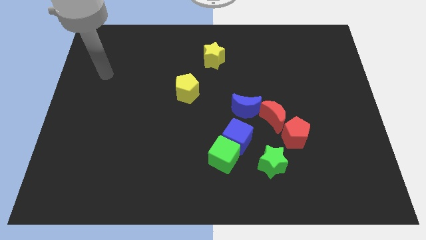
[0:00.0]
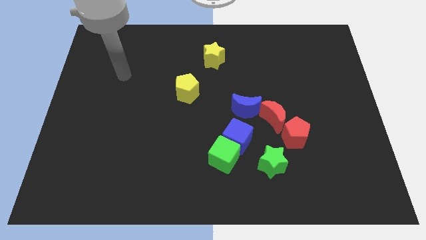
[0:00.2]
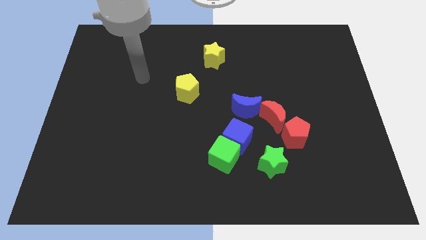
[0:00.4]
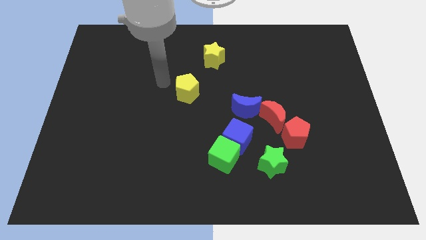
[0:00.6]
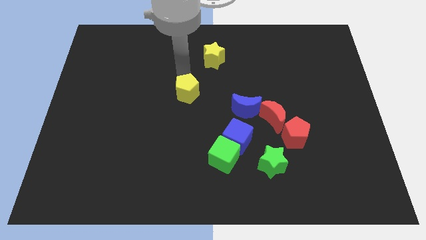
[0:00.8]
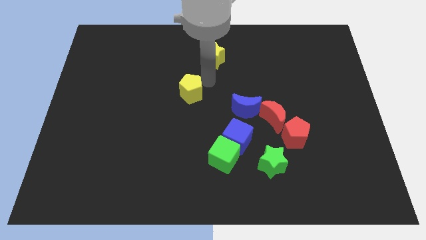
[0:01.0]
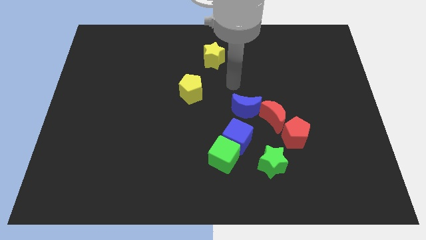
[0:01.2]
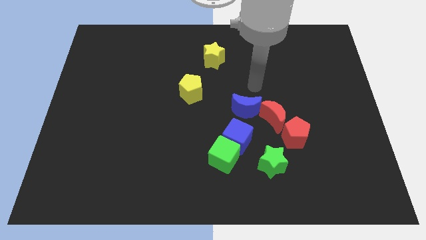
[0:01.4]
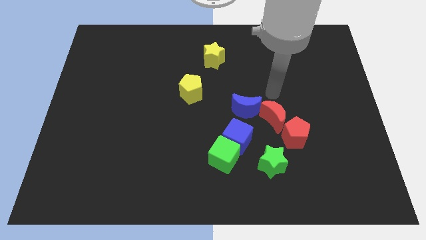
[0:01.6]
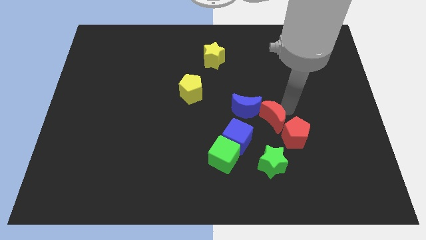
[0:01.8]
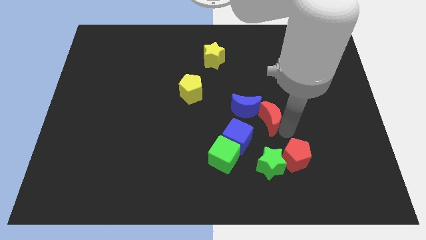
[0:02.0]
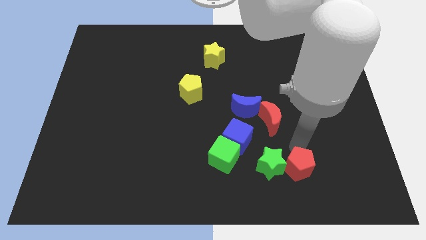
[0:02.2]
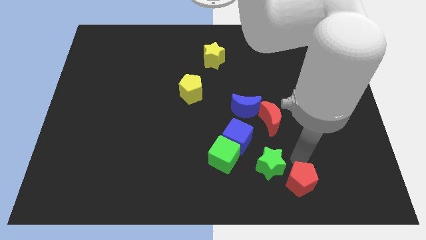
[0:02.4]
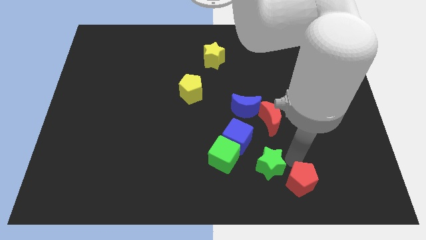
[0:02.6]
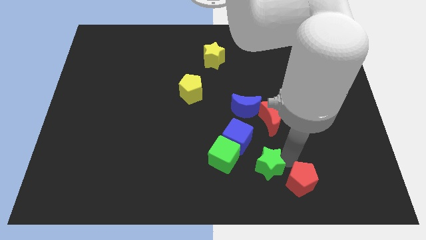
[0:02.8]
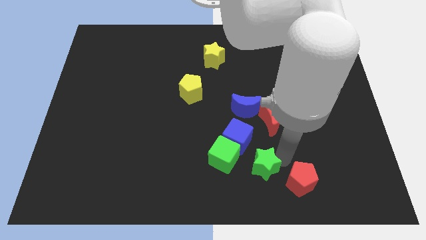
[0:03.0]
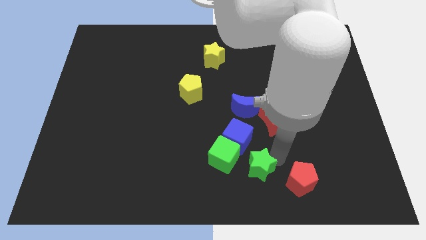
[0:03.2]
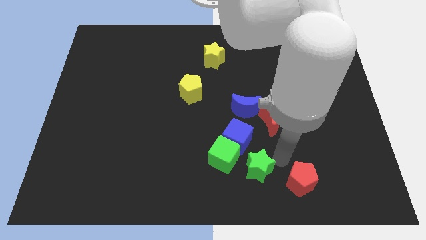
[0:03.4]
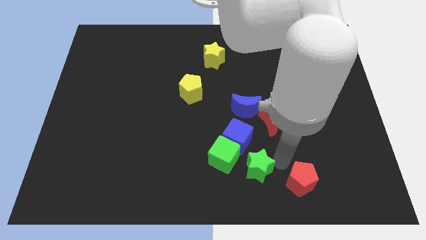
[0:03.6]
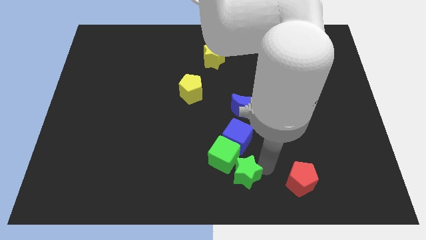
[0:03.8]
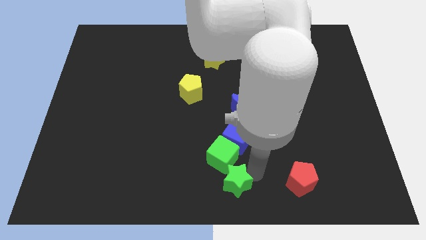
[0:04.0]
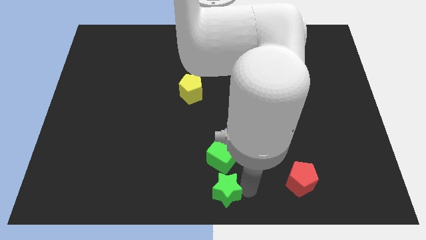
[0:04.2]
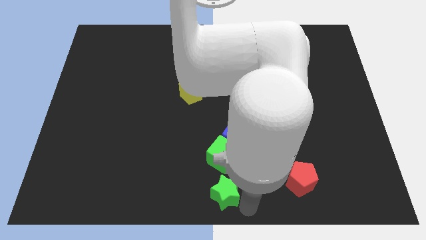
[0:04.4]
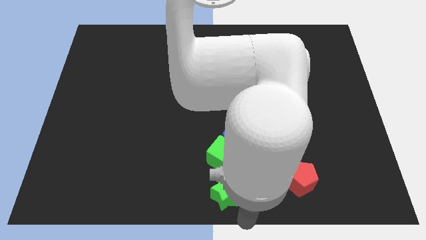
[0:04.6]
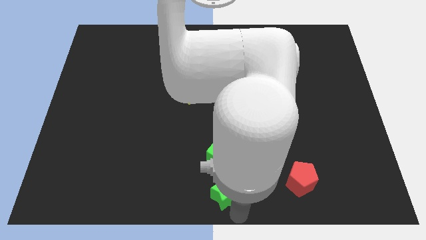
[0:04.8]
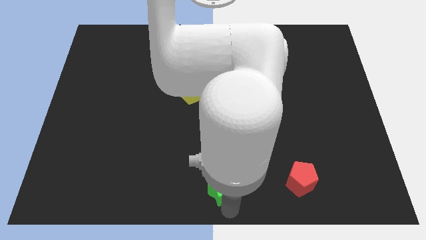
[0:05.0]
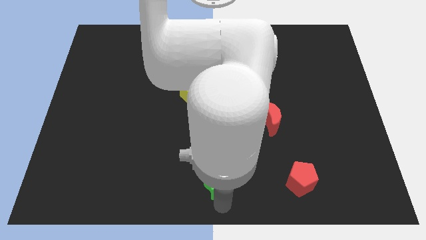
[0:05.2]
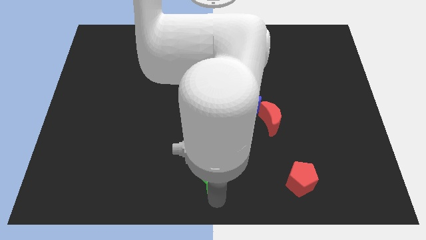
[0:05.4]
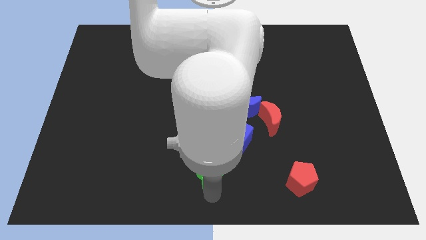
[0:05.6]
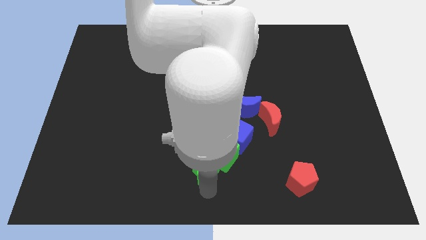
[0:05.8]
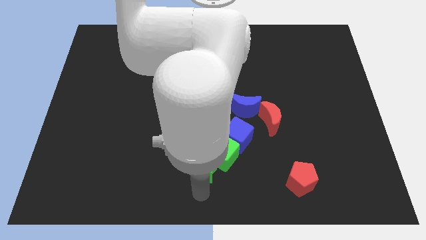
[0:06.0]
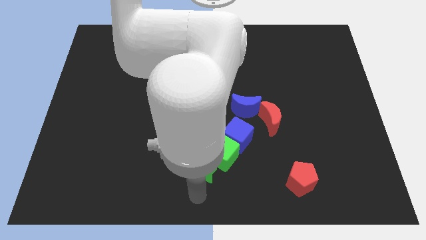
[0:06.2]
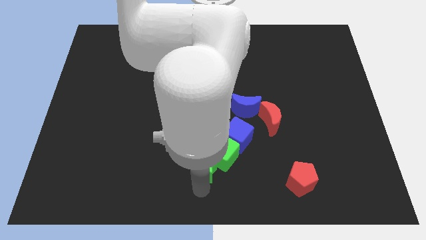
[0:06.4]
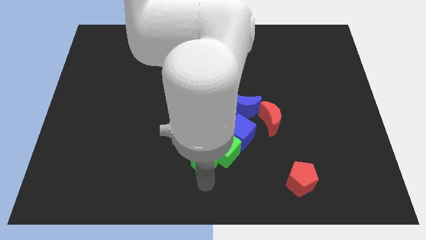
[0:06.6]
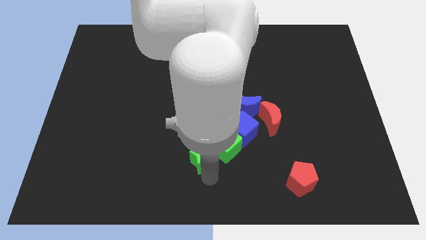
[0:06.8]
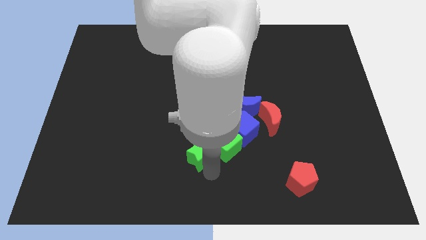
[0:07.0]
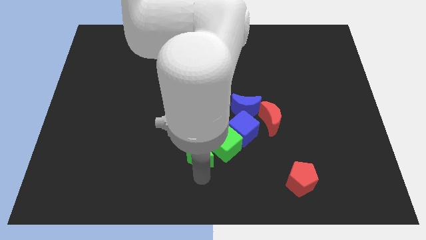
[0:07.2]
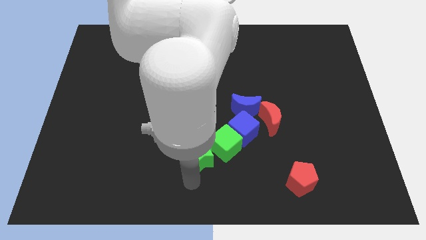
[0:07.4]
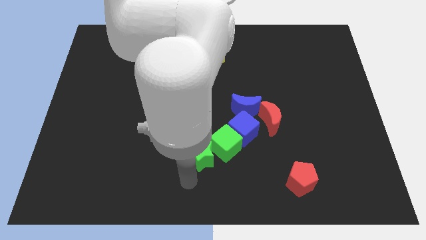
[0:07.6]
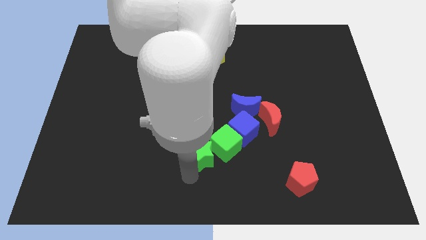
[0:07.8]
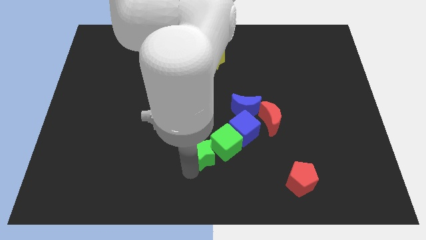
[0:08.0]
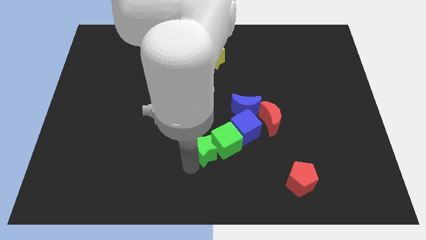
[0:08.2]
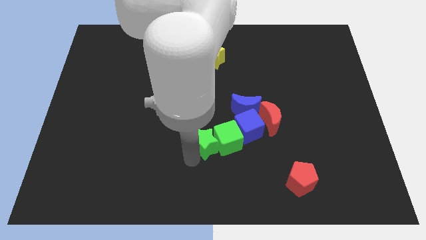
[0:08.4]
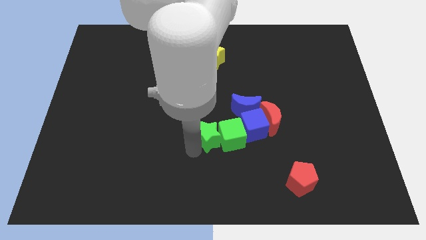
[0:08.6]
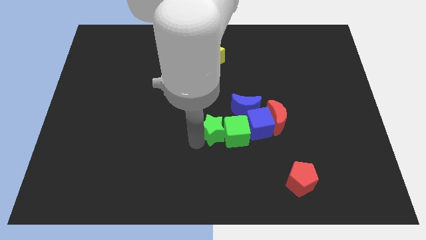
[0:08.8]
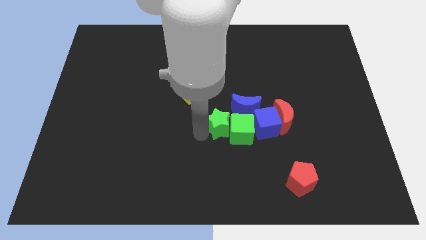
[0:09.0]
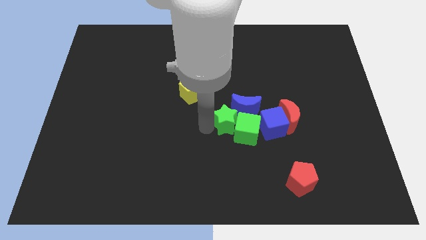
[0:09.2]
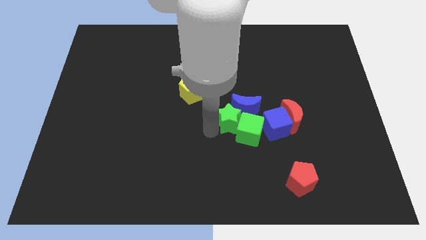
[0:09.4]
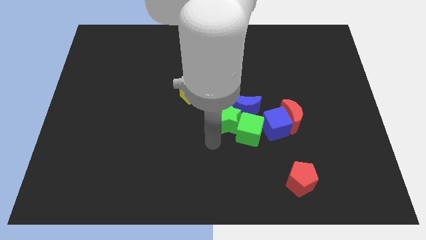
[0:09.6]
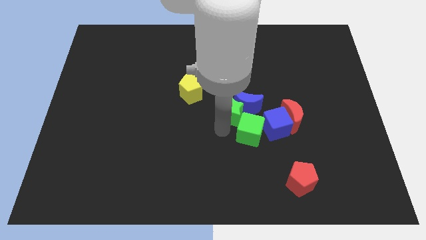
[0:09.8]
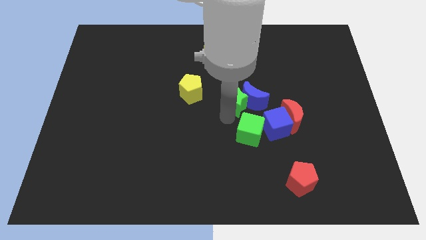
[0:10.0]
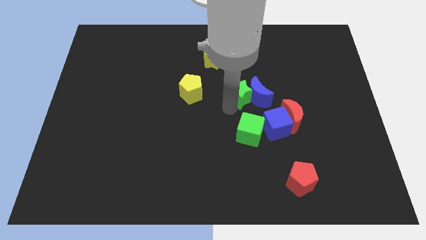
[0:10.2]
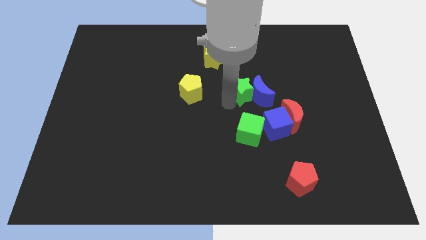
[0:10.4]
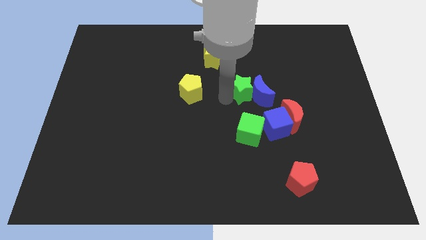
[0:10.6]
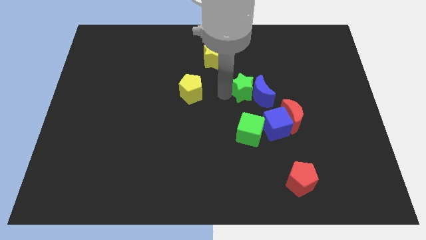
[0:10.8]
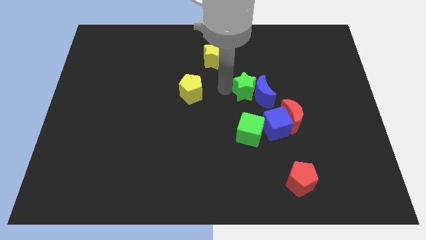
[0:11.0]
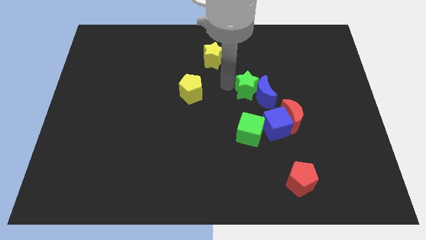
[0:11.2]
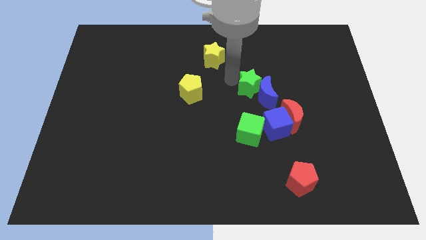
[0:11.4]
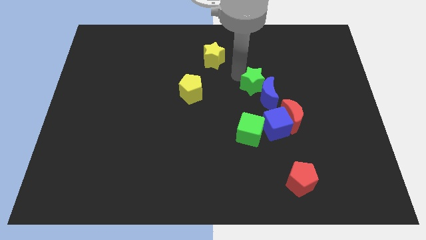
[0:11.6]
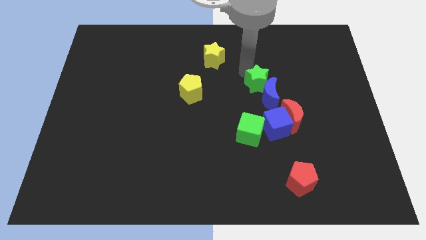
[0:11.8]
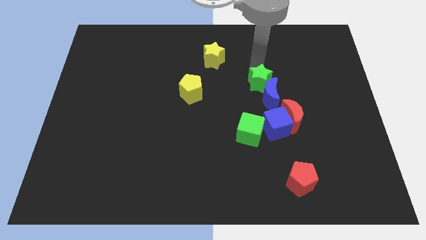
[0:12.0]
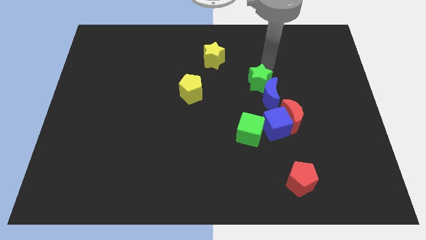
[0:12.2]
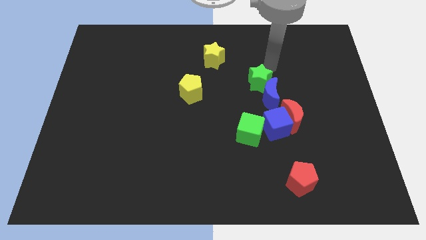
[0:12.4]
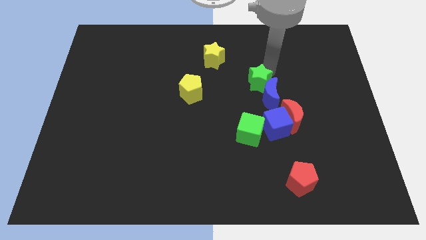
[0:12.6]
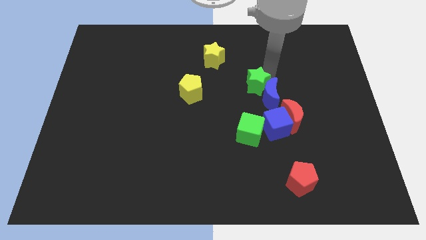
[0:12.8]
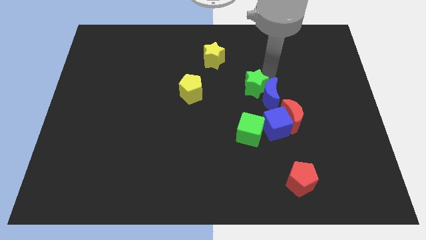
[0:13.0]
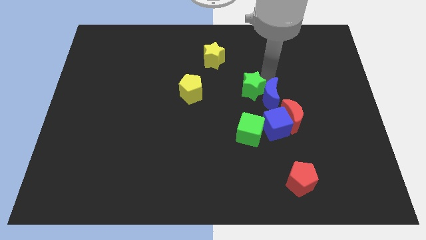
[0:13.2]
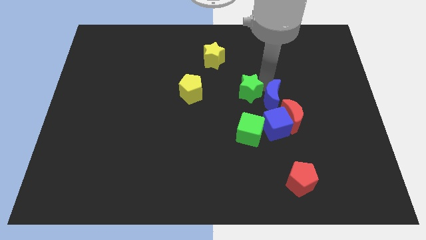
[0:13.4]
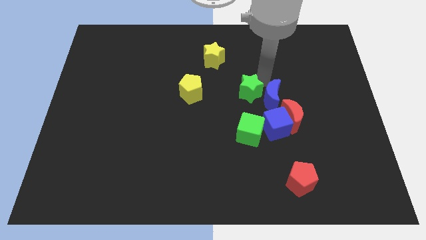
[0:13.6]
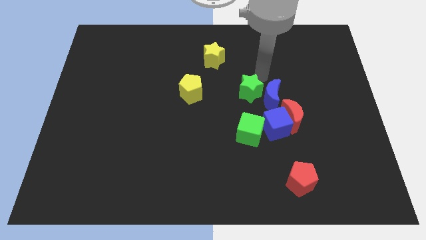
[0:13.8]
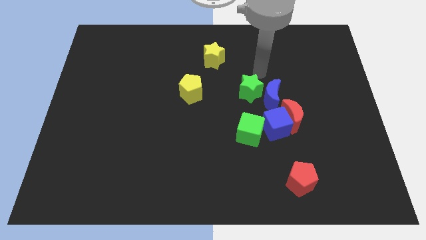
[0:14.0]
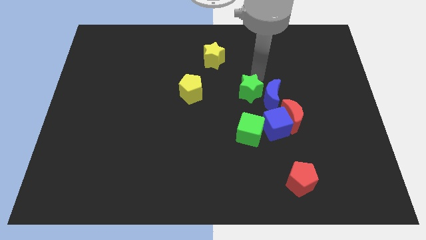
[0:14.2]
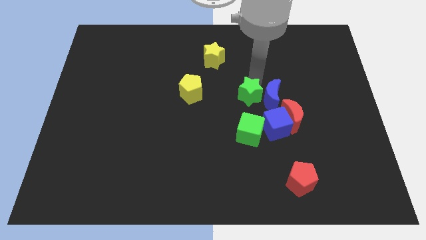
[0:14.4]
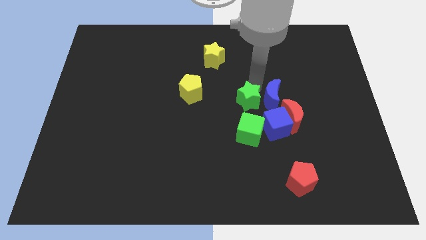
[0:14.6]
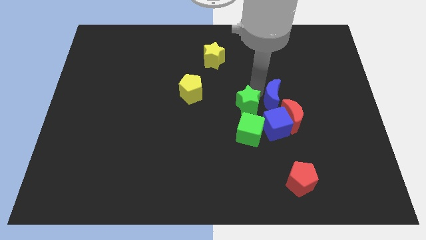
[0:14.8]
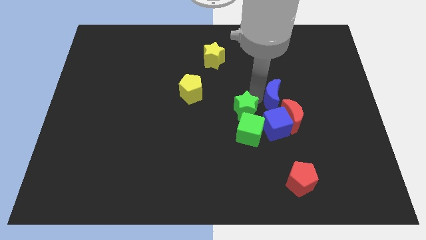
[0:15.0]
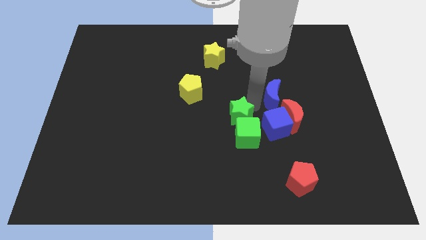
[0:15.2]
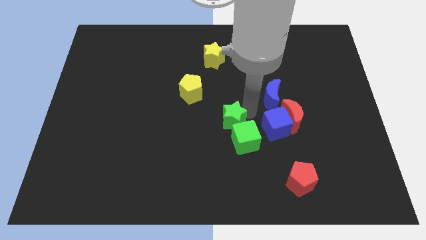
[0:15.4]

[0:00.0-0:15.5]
slide the green star to the top of the green cube

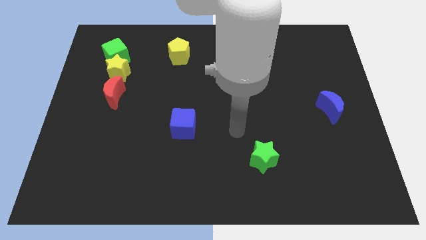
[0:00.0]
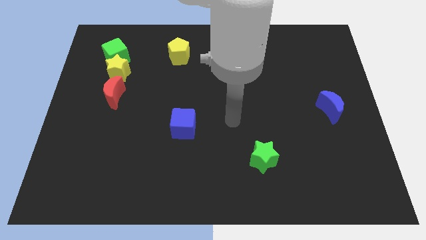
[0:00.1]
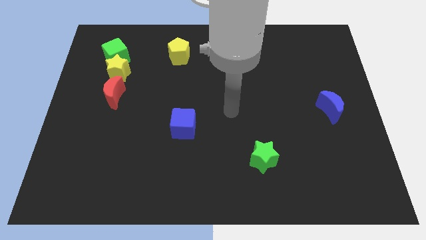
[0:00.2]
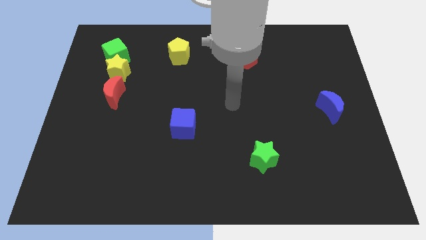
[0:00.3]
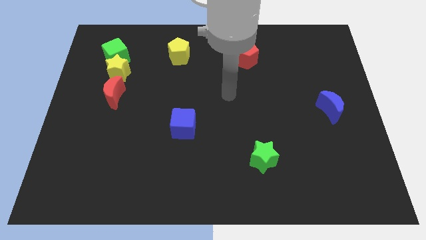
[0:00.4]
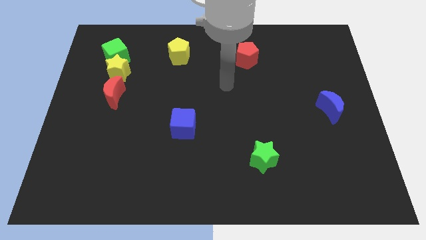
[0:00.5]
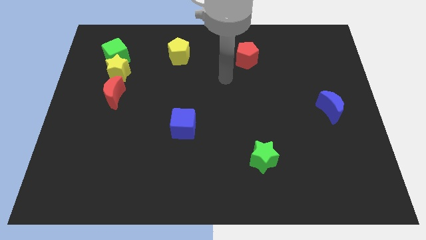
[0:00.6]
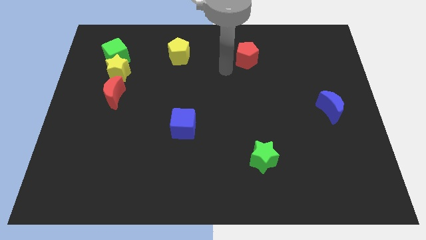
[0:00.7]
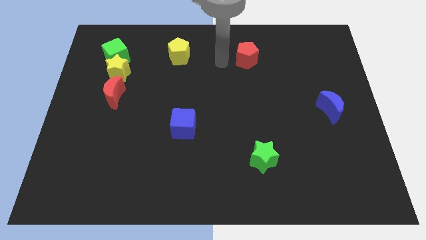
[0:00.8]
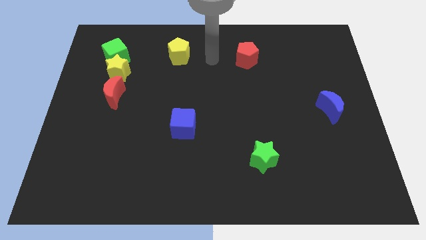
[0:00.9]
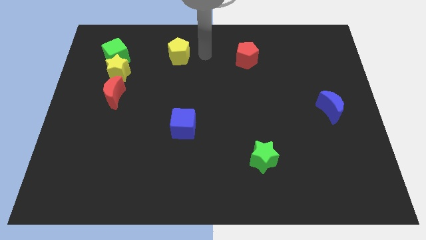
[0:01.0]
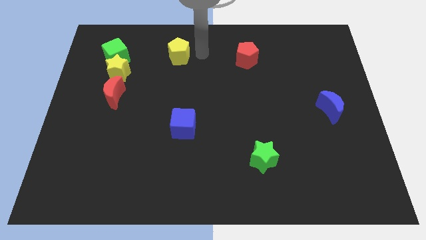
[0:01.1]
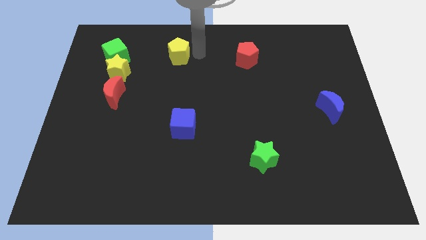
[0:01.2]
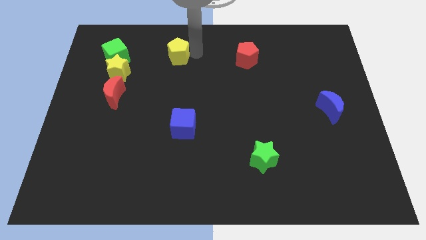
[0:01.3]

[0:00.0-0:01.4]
put the yellow pentagon just right of the green cube
